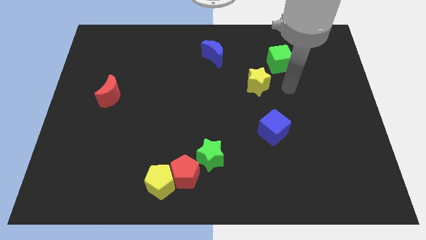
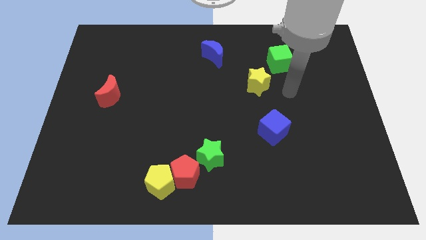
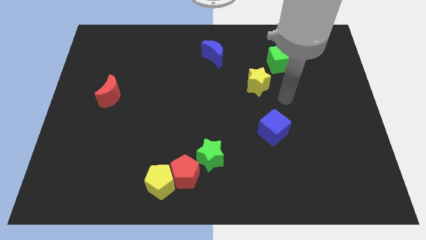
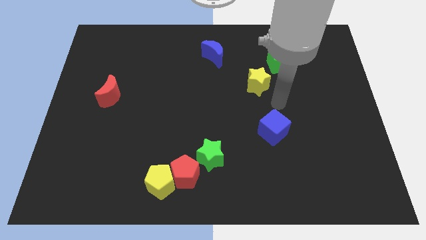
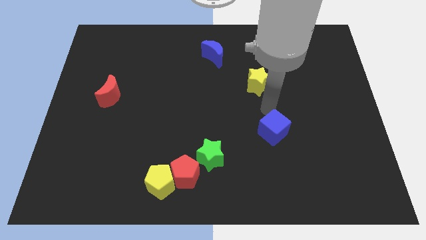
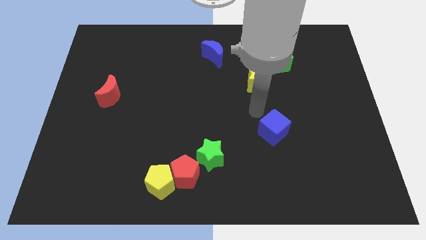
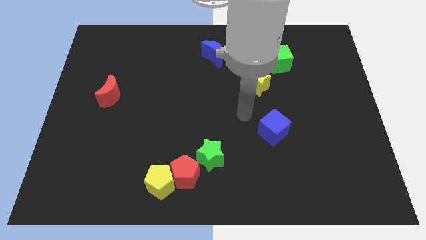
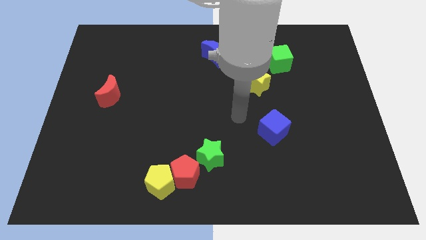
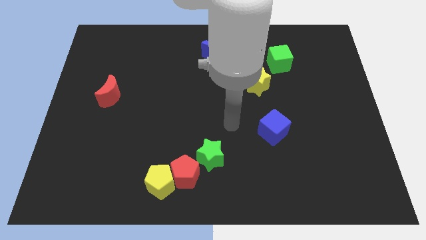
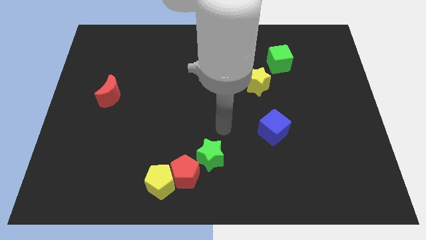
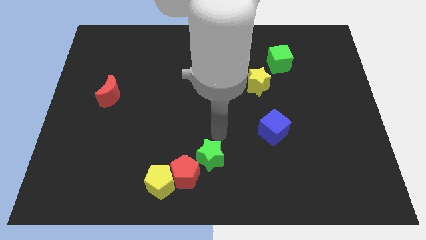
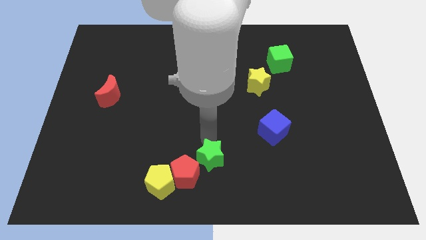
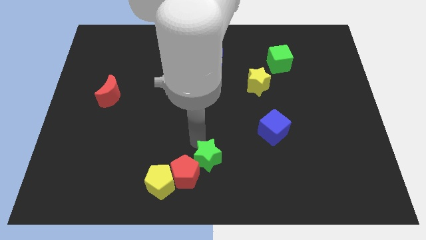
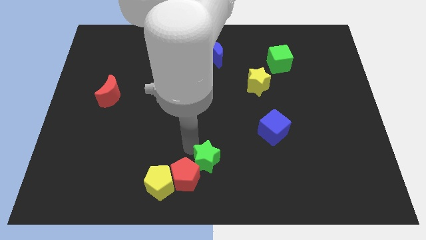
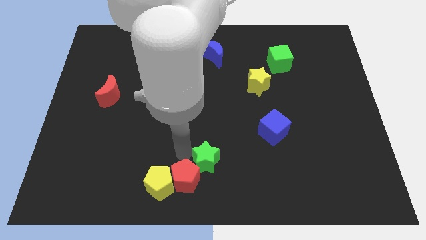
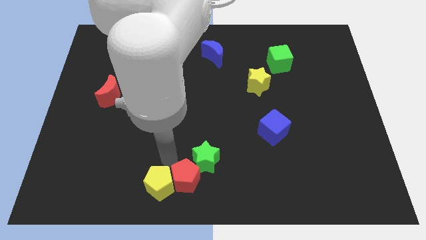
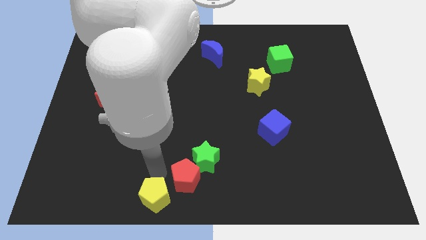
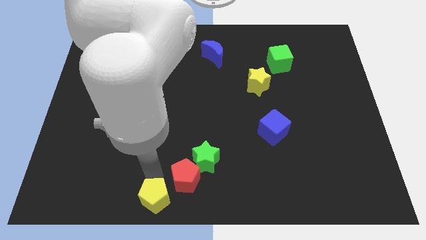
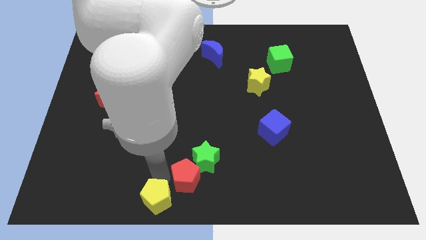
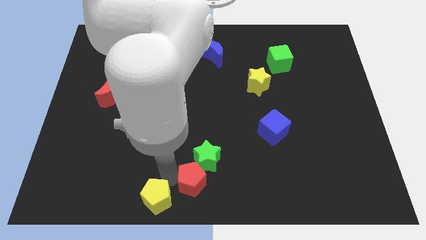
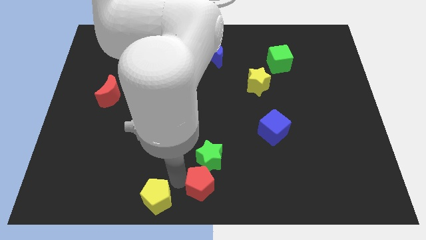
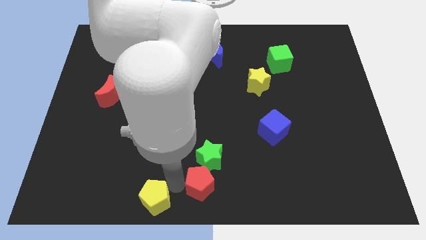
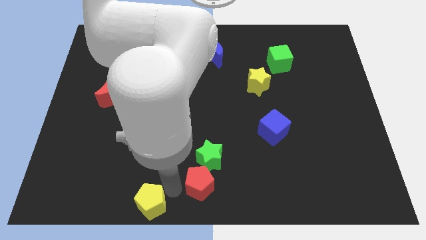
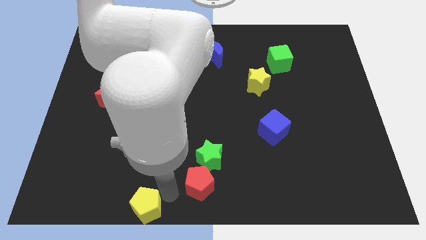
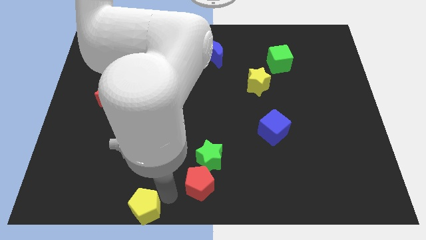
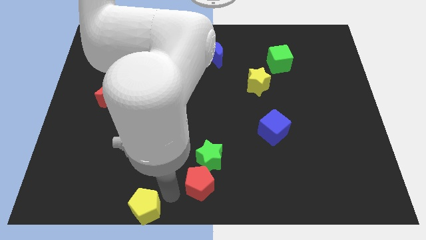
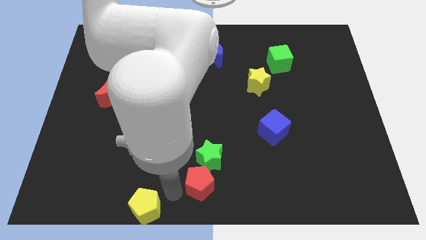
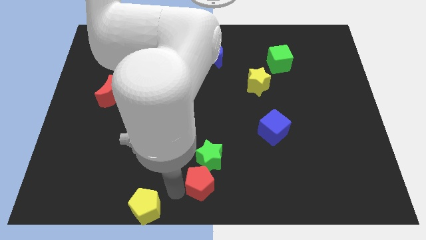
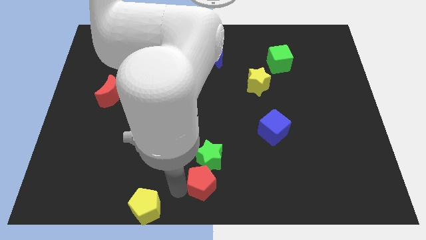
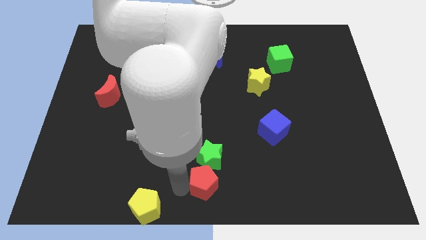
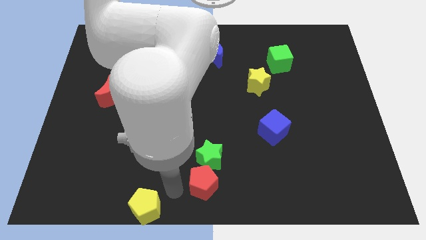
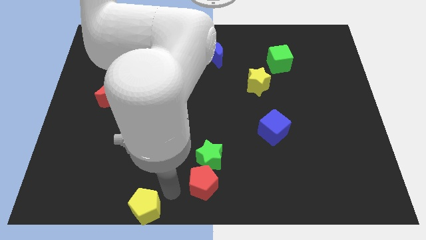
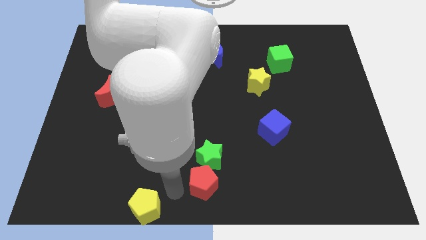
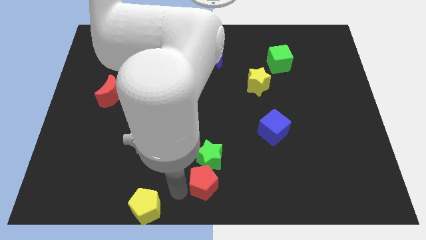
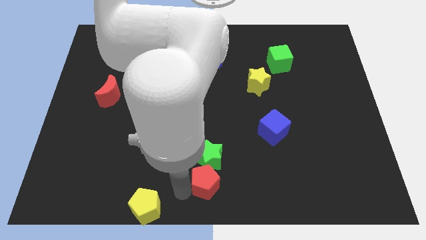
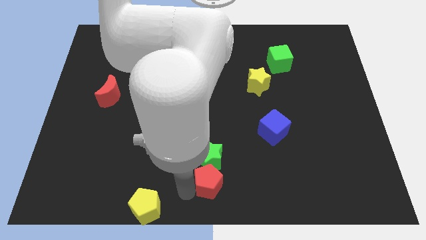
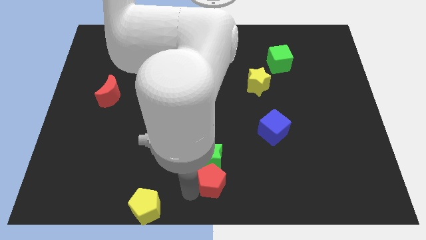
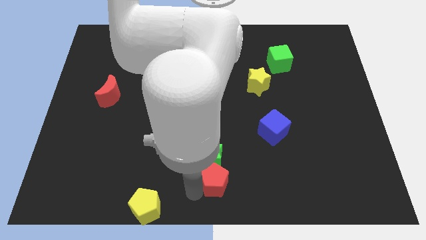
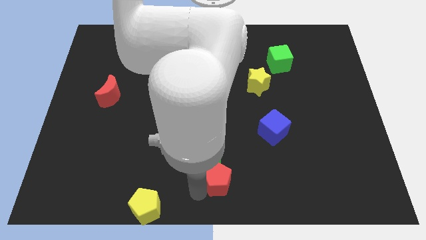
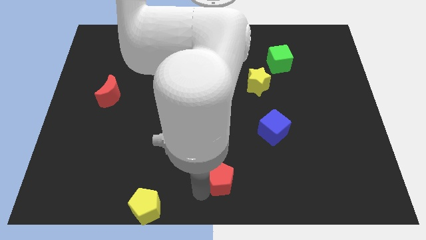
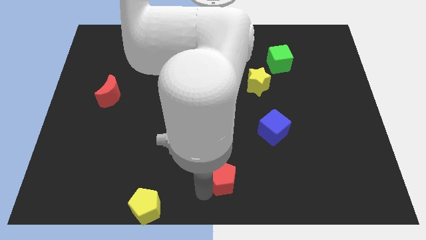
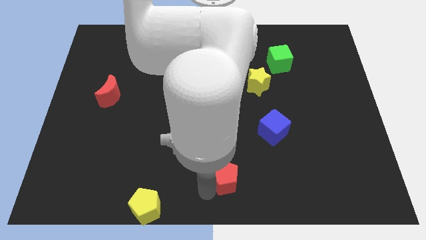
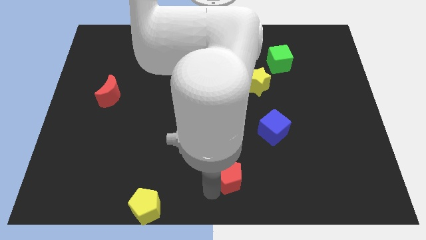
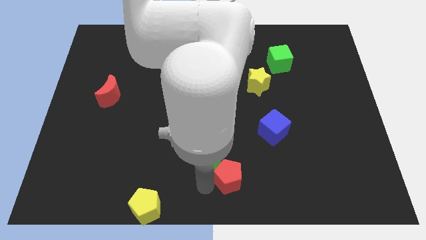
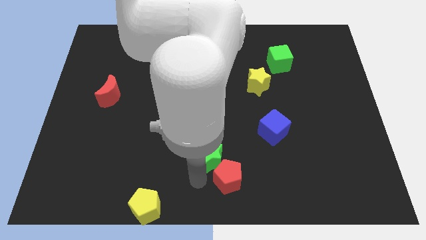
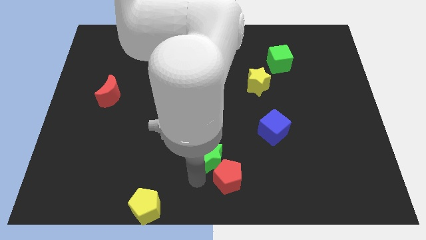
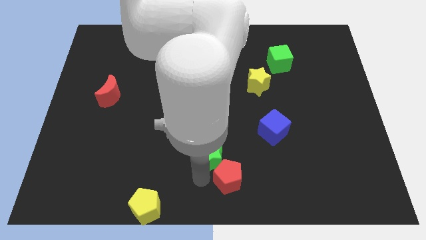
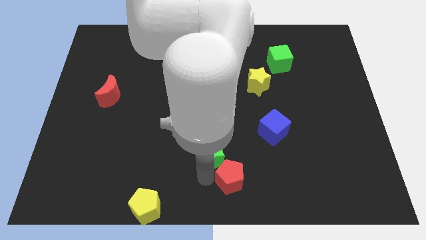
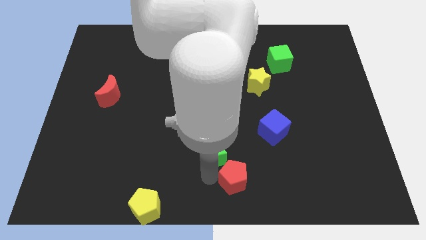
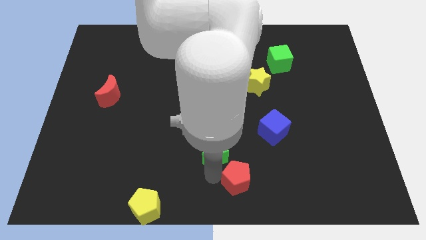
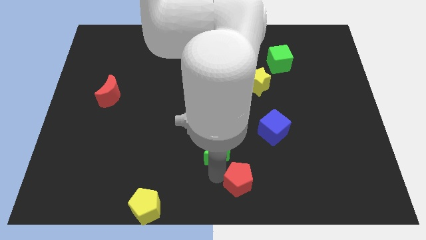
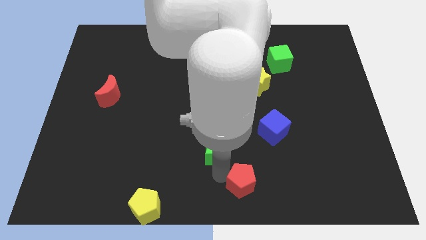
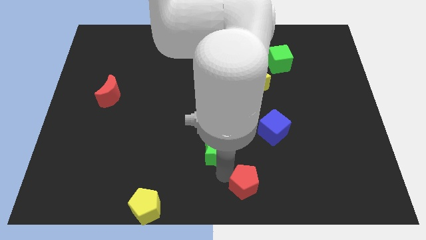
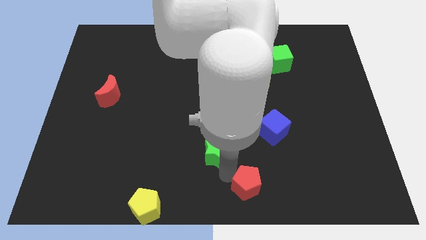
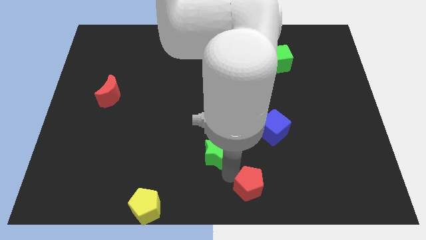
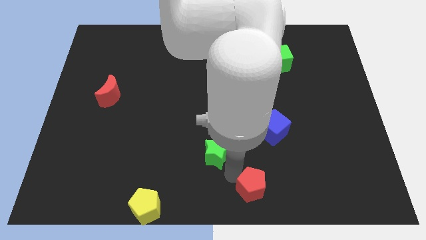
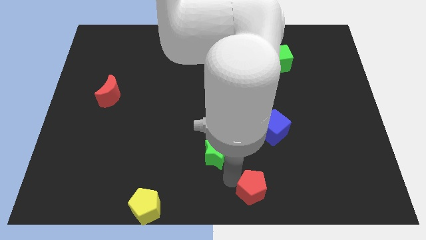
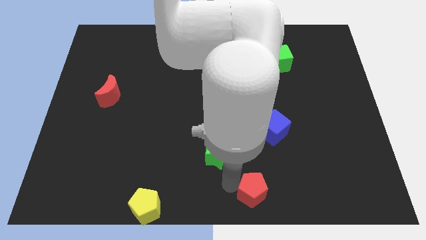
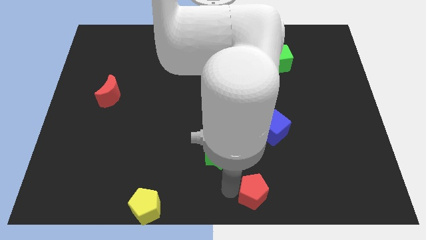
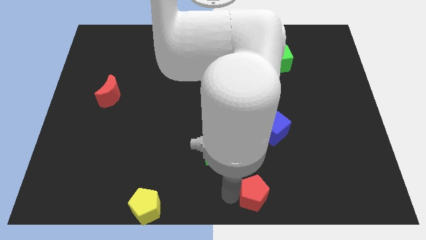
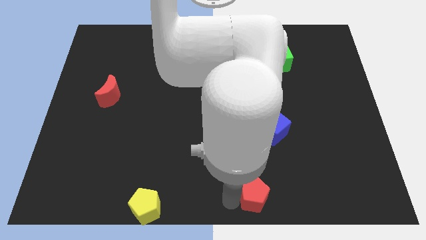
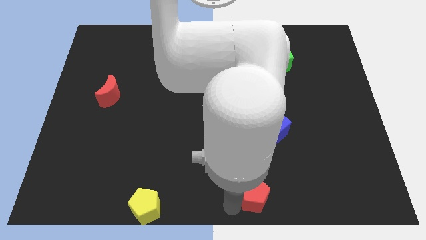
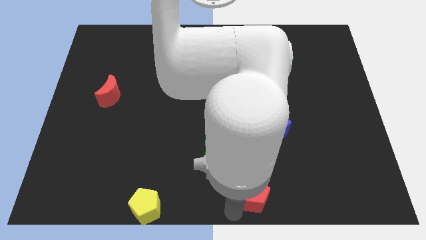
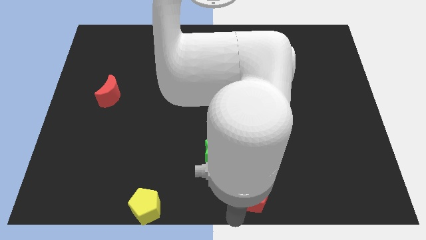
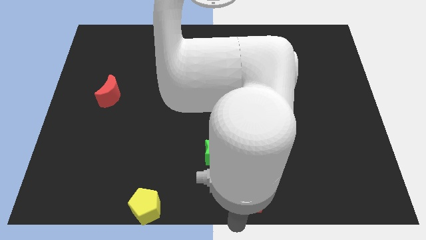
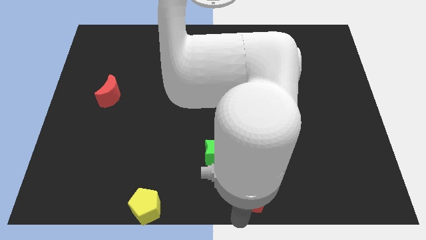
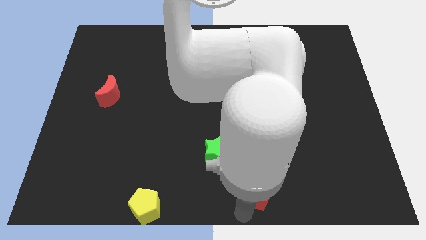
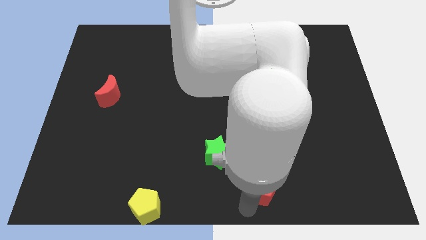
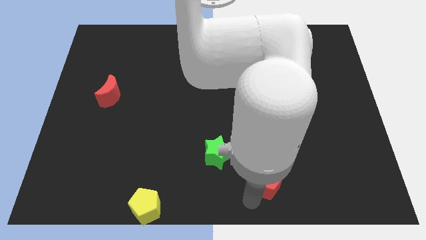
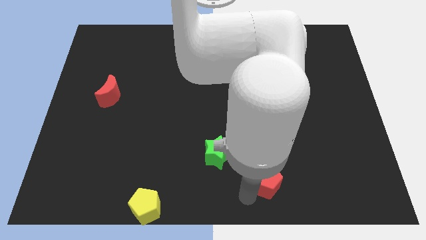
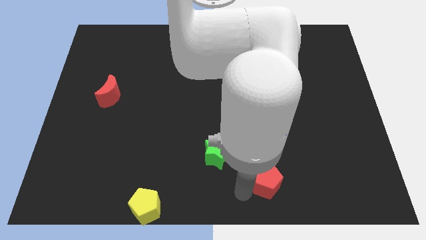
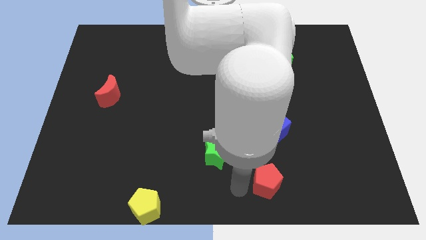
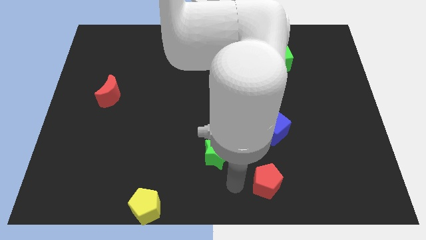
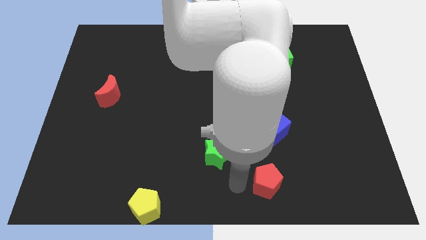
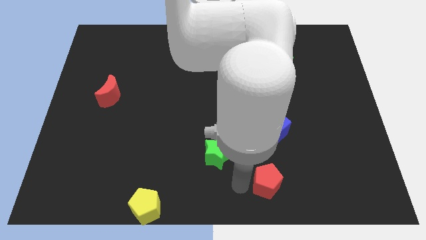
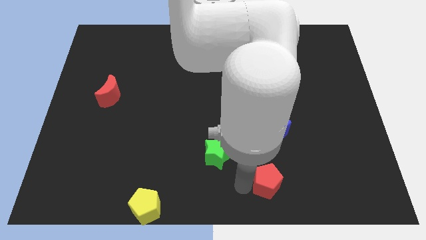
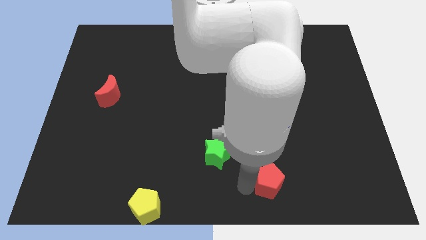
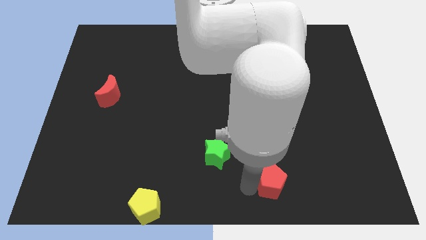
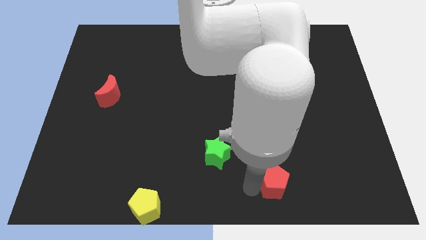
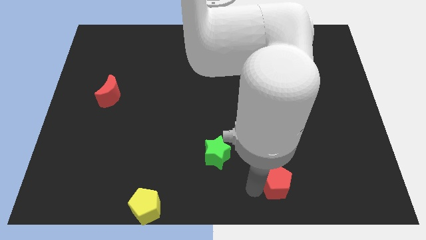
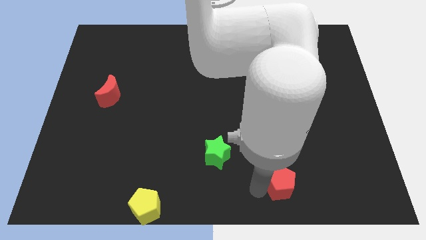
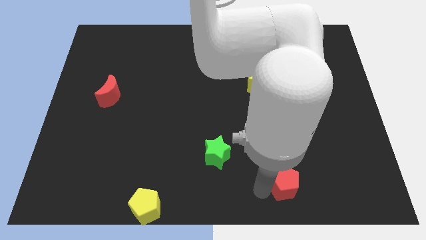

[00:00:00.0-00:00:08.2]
move the red pentagon right
